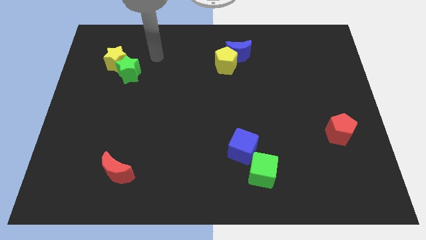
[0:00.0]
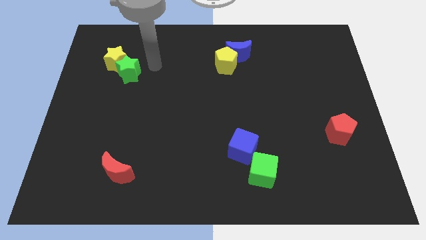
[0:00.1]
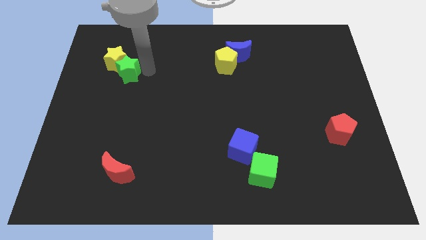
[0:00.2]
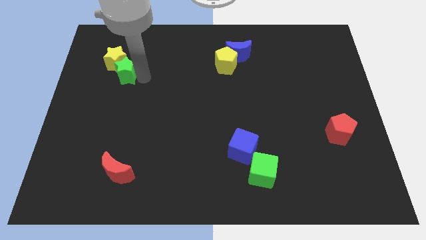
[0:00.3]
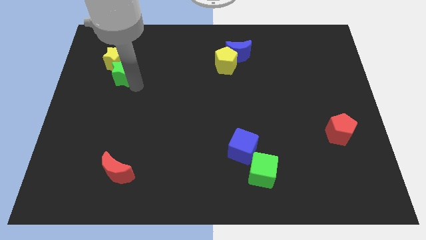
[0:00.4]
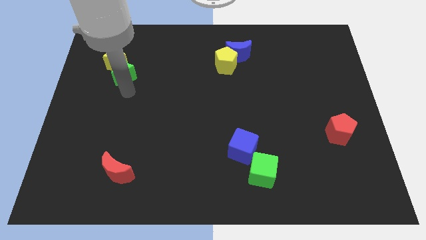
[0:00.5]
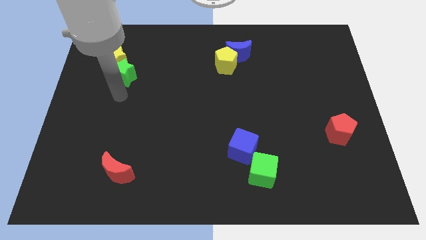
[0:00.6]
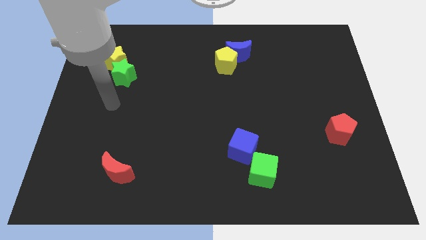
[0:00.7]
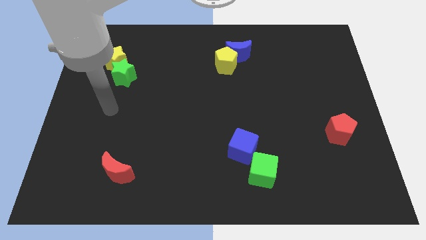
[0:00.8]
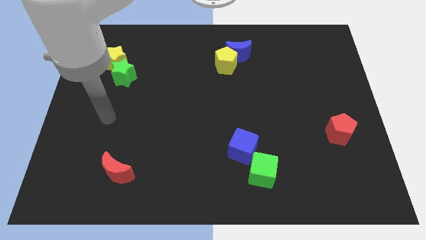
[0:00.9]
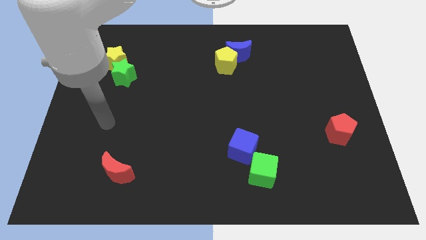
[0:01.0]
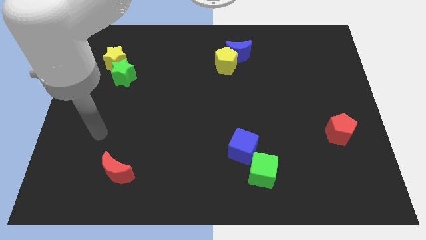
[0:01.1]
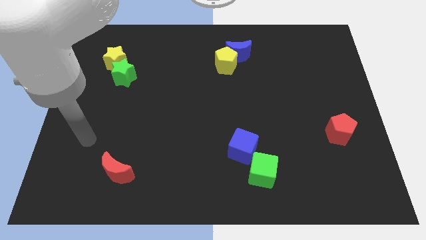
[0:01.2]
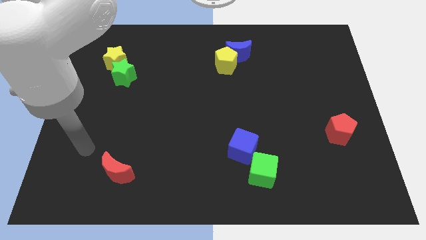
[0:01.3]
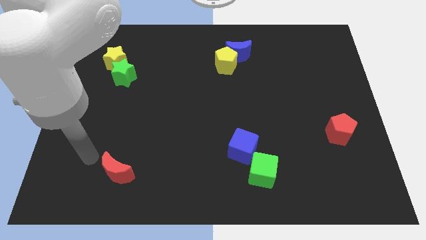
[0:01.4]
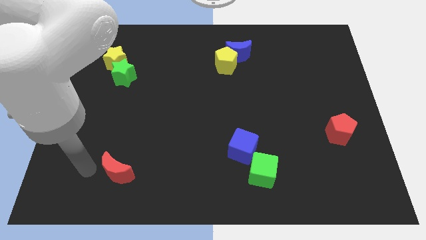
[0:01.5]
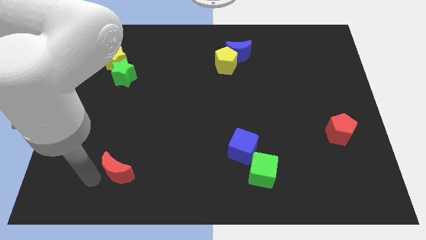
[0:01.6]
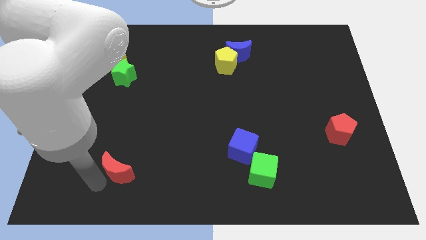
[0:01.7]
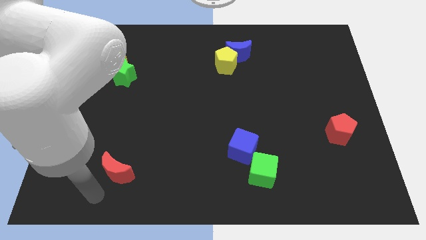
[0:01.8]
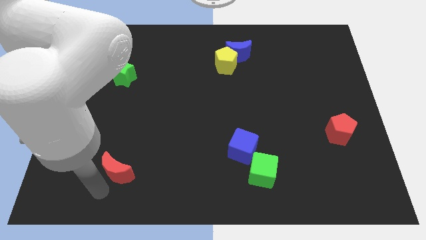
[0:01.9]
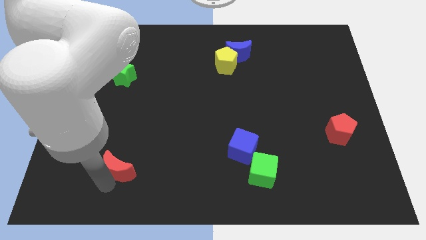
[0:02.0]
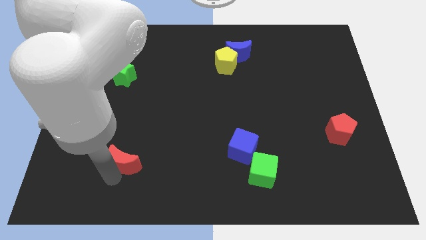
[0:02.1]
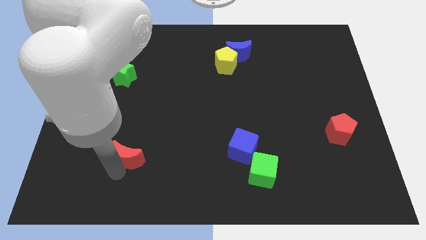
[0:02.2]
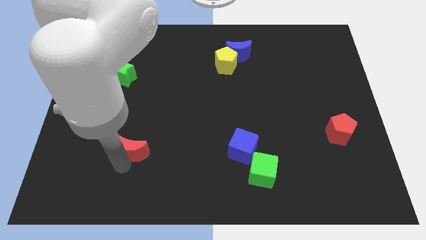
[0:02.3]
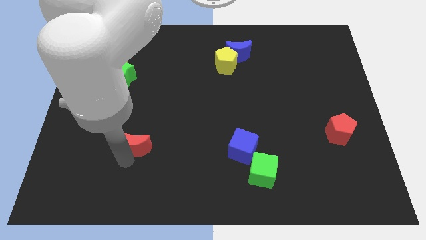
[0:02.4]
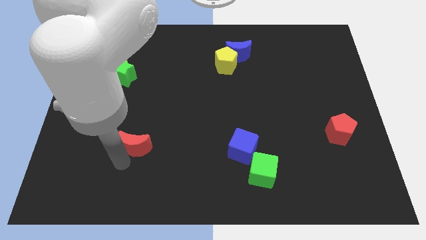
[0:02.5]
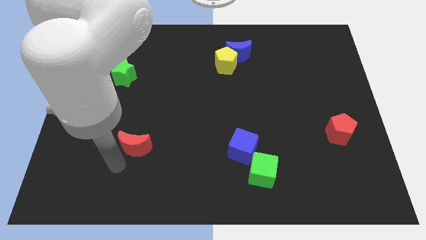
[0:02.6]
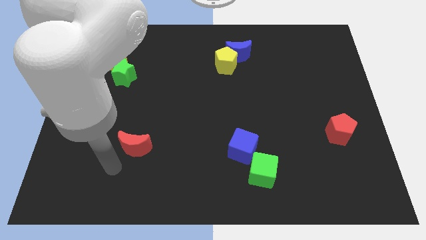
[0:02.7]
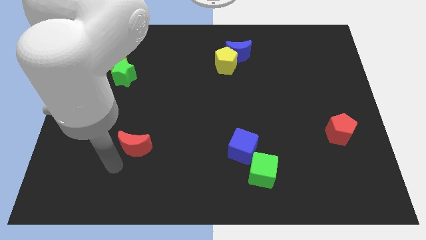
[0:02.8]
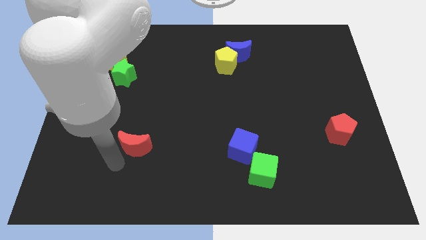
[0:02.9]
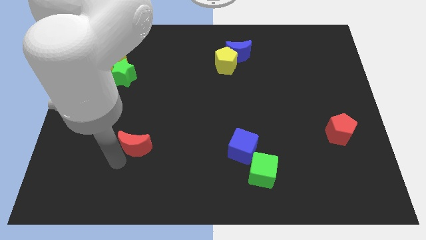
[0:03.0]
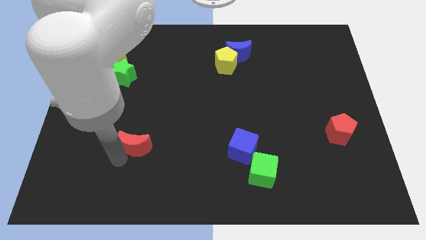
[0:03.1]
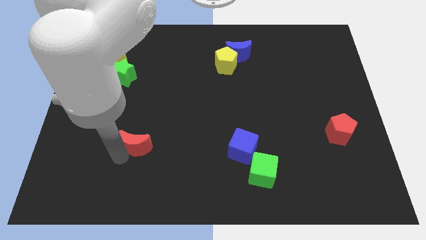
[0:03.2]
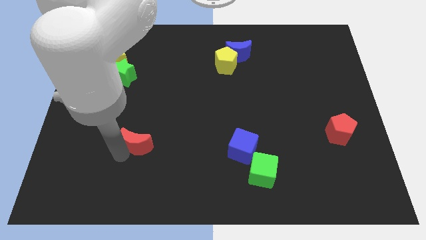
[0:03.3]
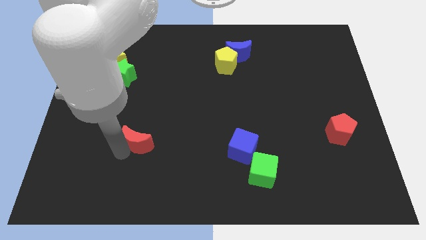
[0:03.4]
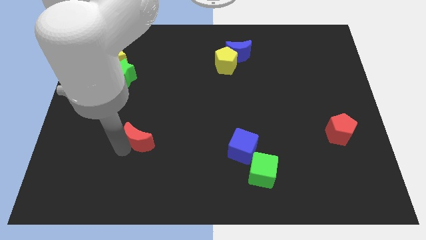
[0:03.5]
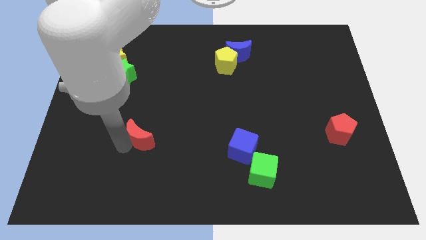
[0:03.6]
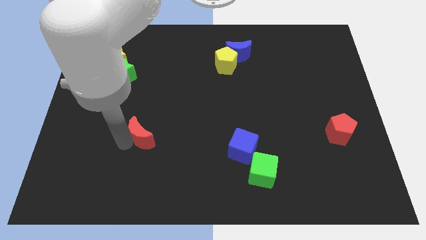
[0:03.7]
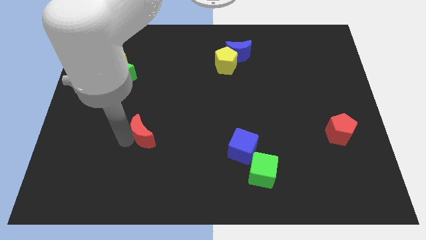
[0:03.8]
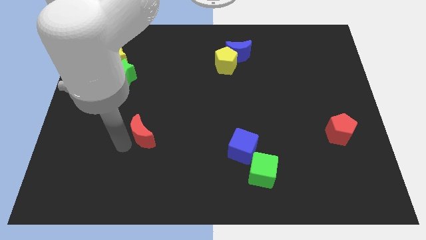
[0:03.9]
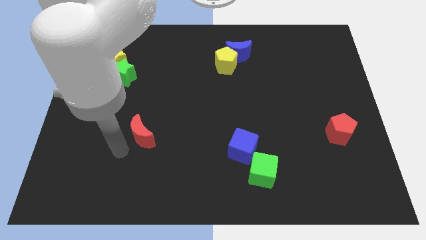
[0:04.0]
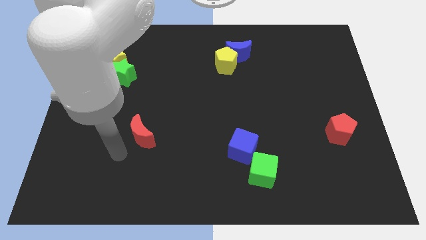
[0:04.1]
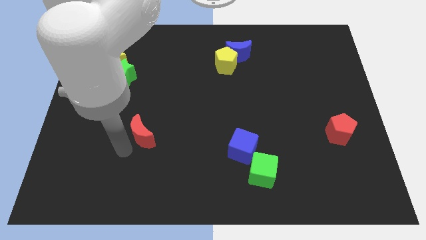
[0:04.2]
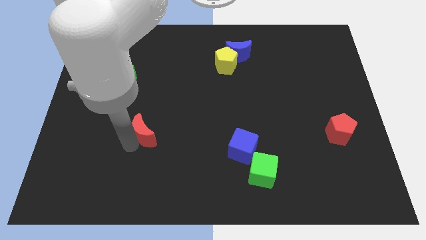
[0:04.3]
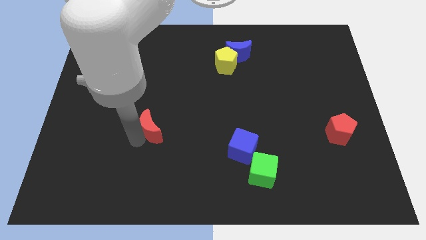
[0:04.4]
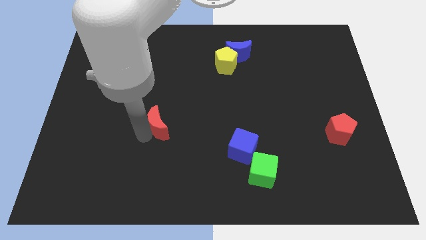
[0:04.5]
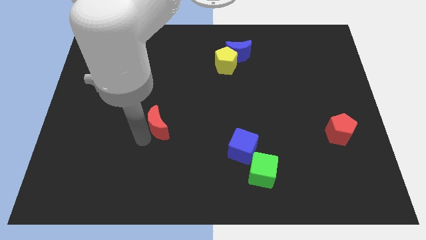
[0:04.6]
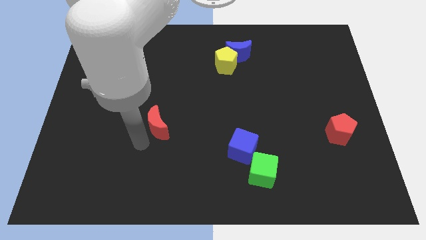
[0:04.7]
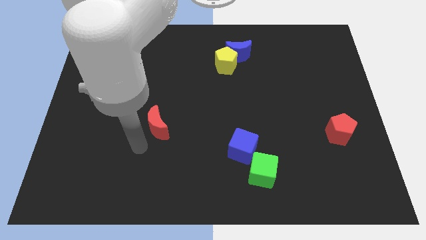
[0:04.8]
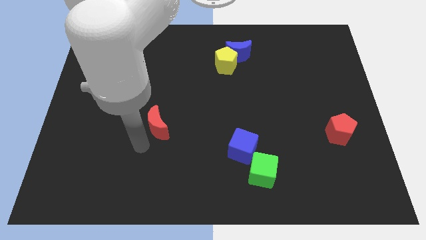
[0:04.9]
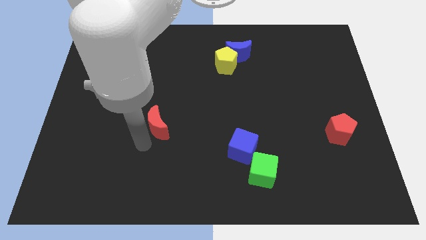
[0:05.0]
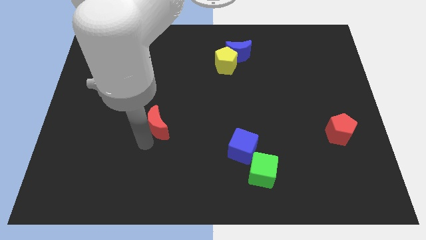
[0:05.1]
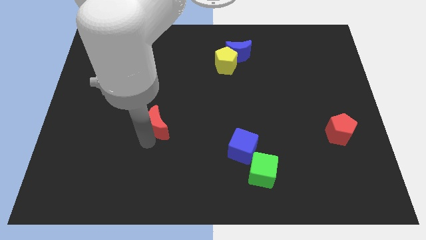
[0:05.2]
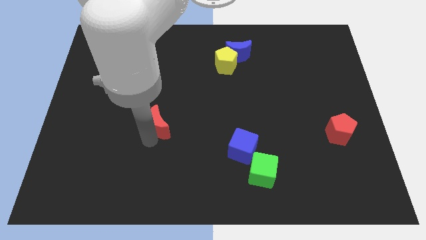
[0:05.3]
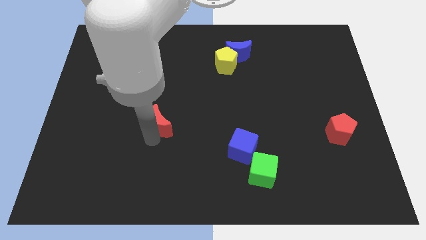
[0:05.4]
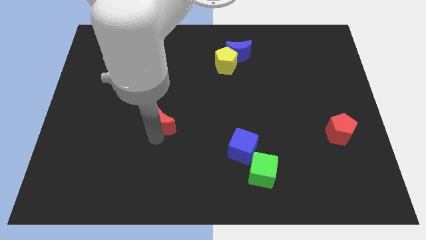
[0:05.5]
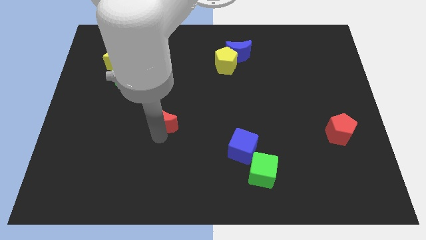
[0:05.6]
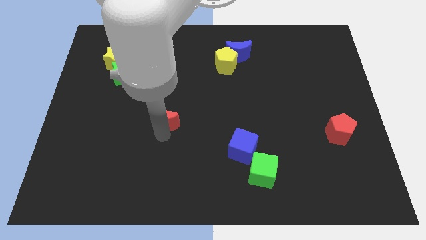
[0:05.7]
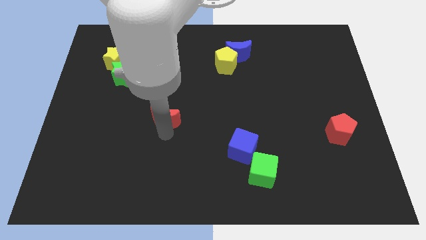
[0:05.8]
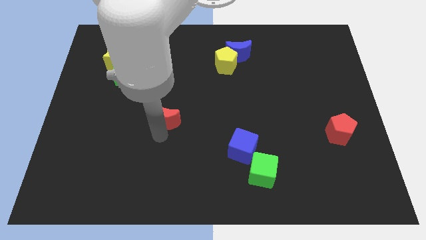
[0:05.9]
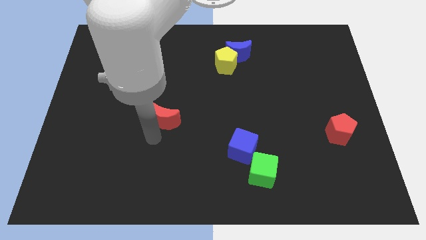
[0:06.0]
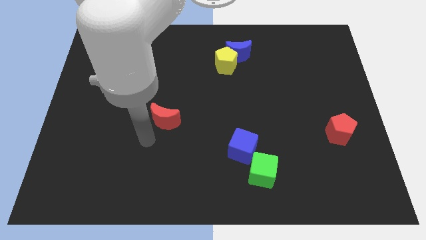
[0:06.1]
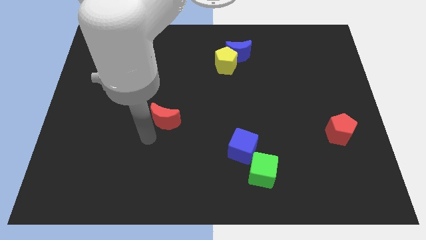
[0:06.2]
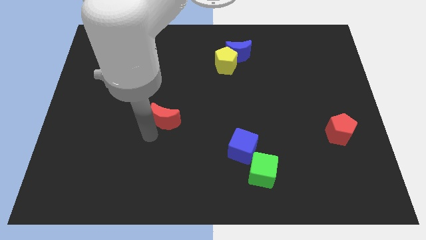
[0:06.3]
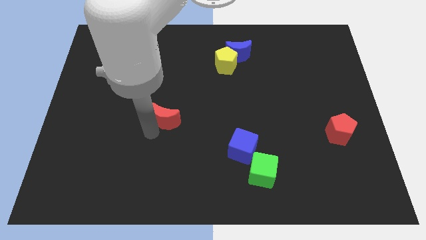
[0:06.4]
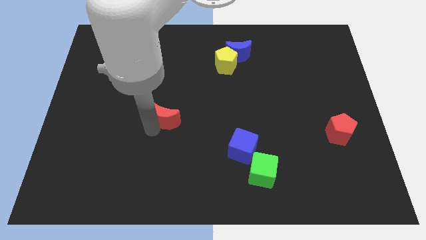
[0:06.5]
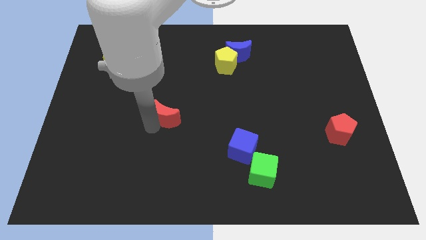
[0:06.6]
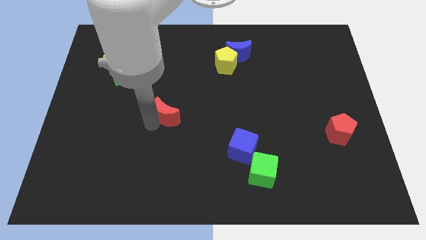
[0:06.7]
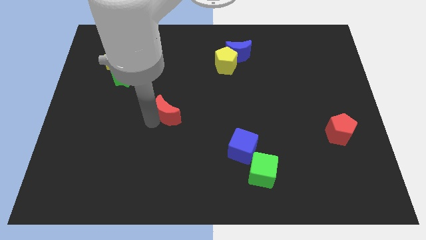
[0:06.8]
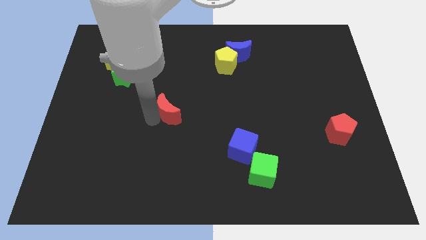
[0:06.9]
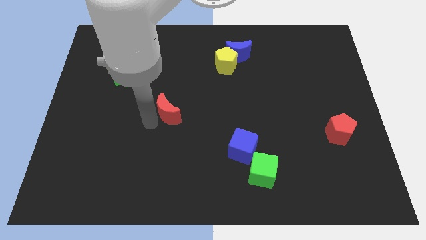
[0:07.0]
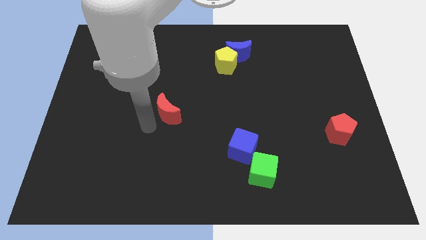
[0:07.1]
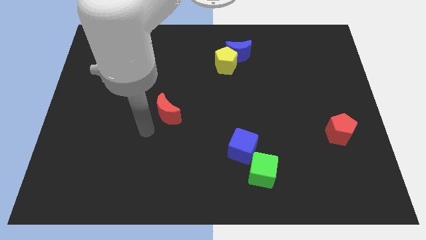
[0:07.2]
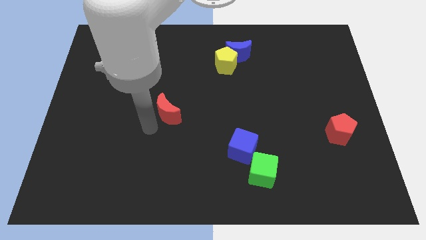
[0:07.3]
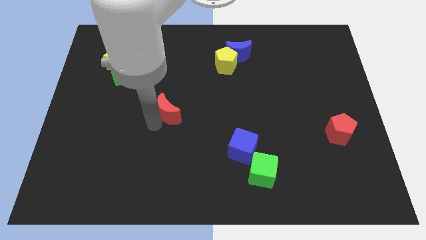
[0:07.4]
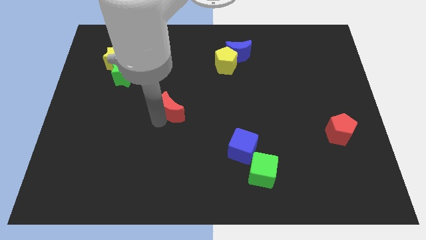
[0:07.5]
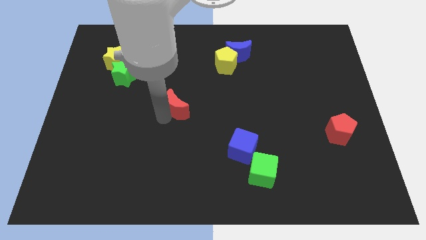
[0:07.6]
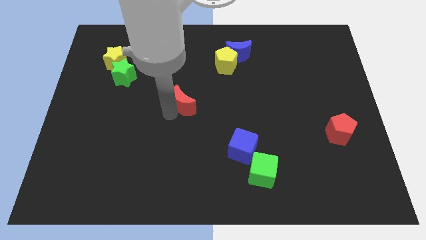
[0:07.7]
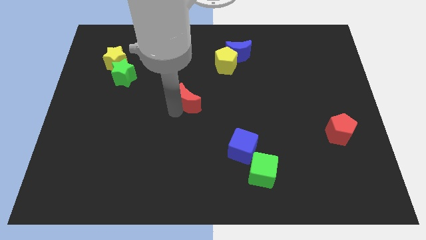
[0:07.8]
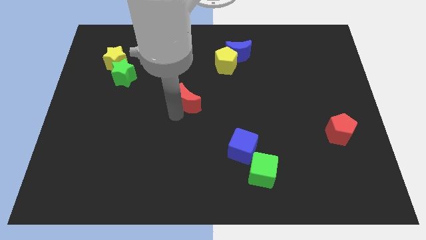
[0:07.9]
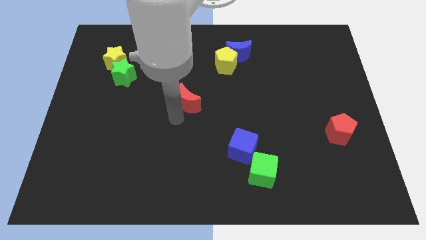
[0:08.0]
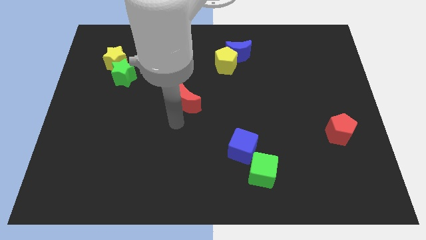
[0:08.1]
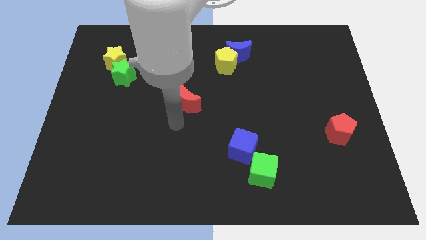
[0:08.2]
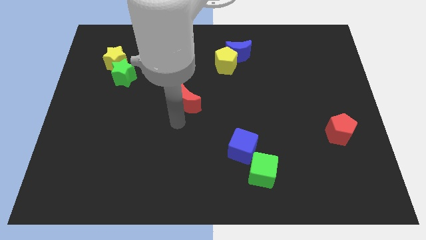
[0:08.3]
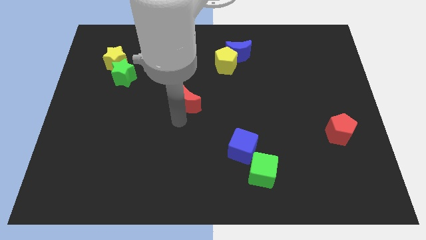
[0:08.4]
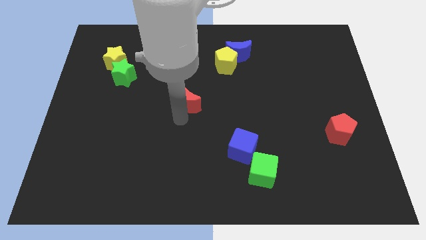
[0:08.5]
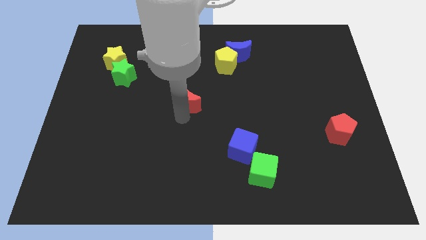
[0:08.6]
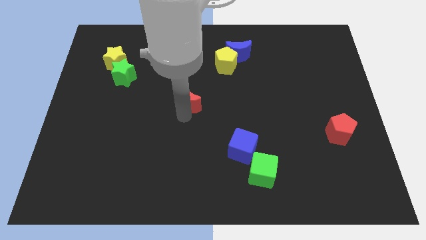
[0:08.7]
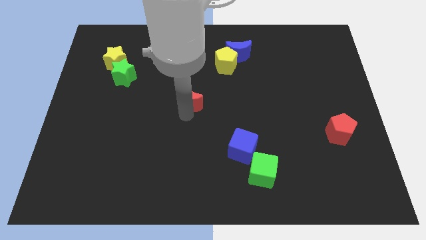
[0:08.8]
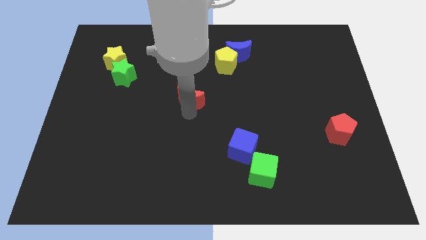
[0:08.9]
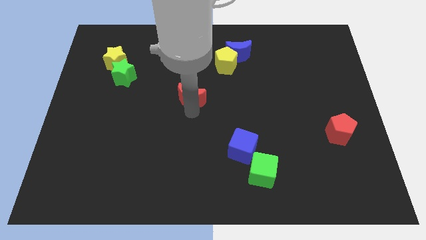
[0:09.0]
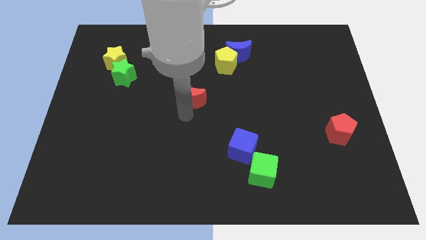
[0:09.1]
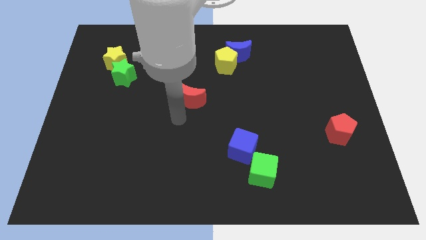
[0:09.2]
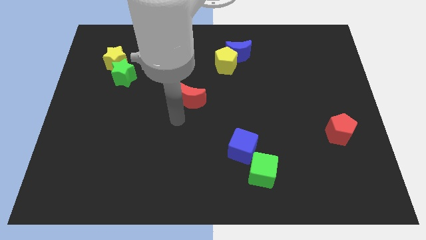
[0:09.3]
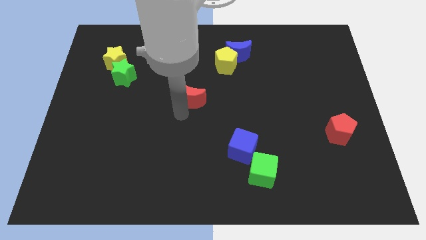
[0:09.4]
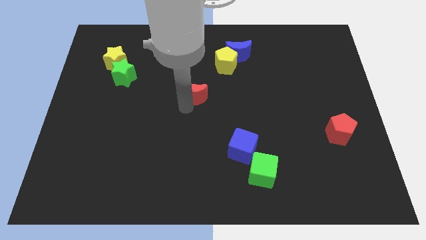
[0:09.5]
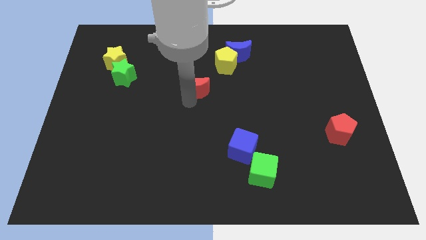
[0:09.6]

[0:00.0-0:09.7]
move the red moon to the bottom left side of the yellow pentagon
